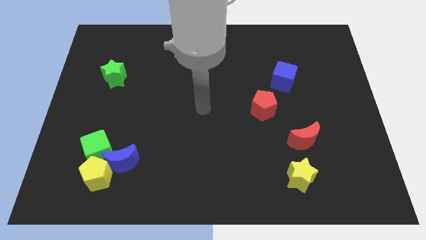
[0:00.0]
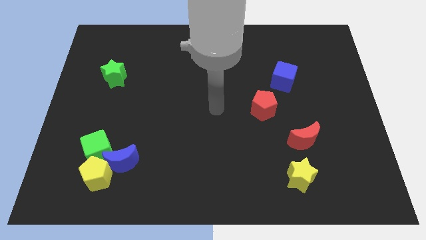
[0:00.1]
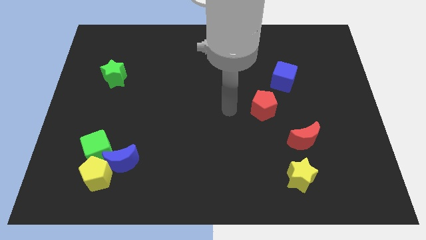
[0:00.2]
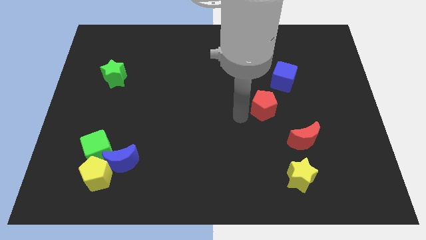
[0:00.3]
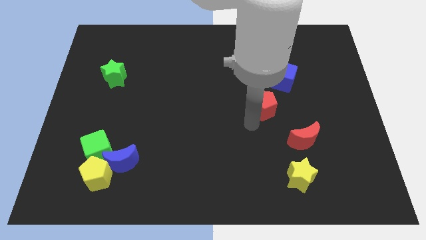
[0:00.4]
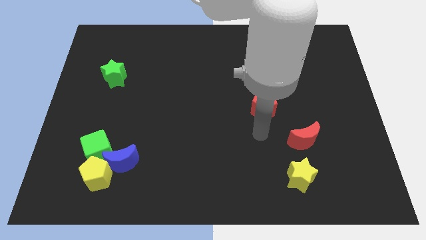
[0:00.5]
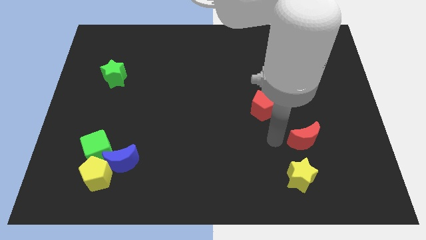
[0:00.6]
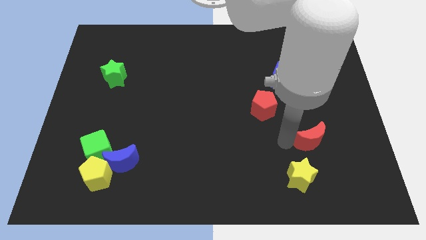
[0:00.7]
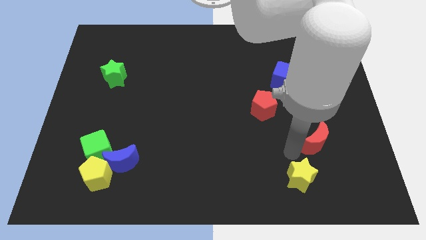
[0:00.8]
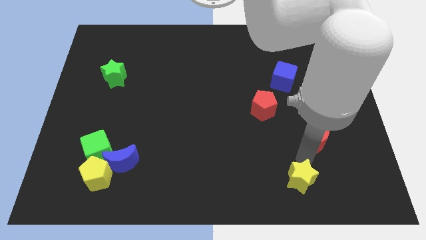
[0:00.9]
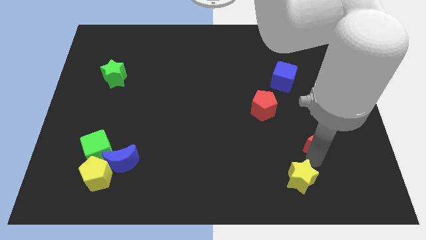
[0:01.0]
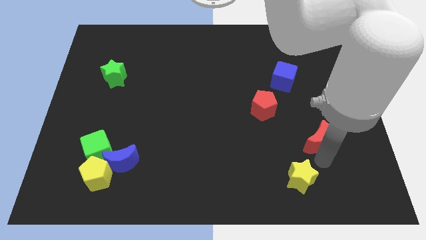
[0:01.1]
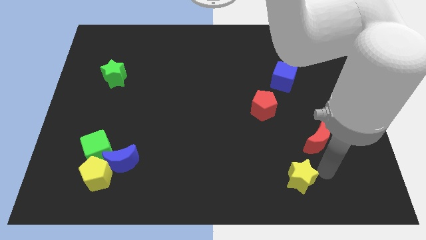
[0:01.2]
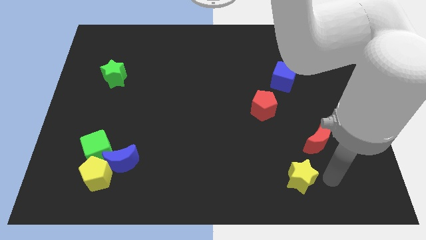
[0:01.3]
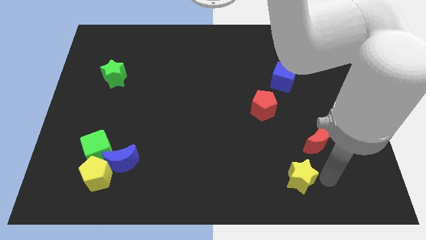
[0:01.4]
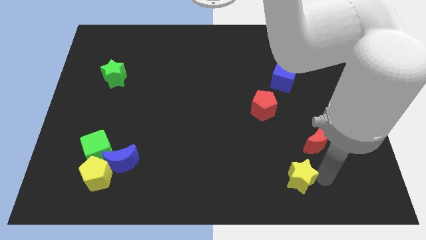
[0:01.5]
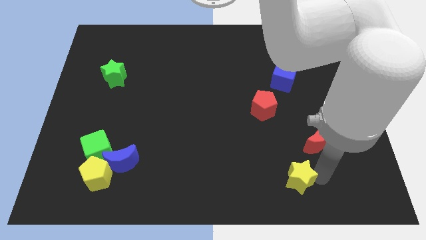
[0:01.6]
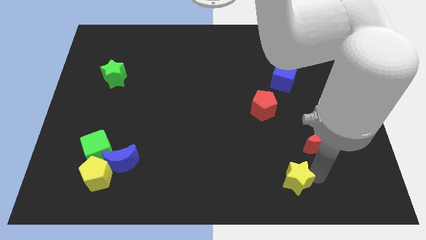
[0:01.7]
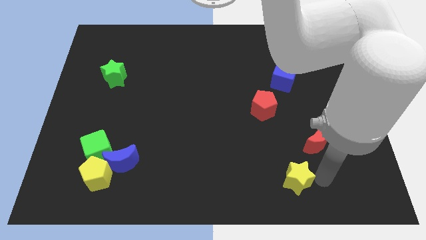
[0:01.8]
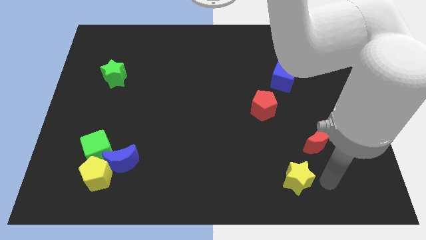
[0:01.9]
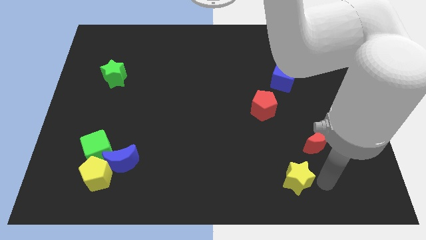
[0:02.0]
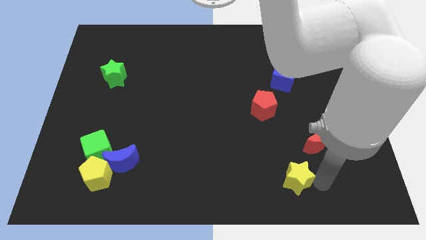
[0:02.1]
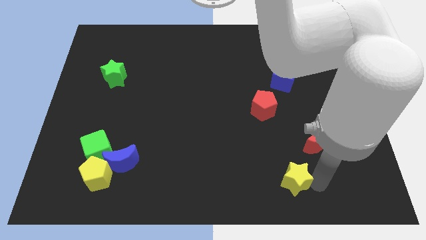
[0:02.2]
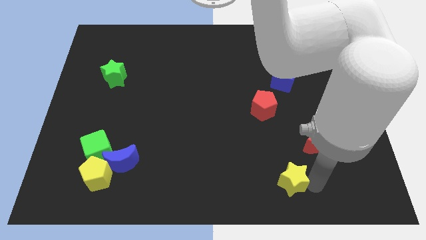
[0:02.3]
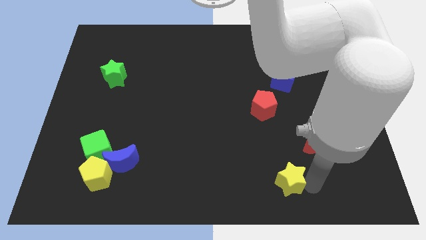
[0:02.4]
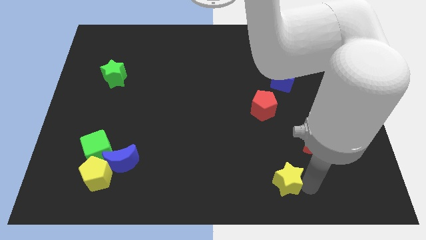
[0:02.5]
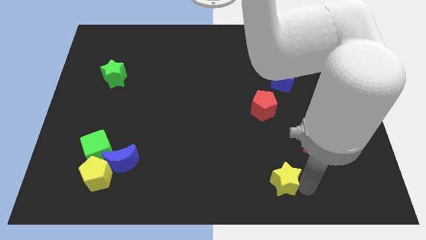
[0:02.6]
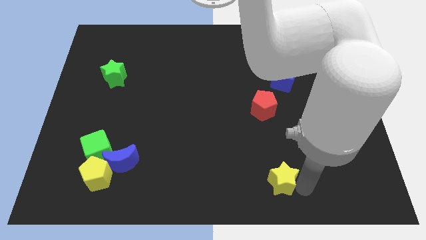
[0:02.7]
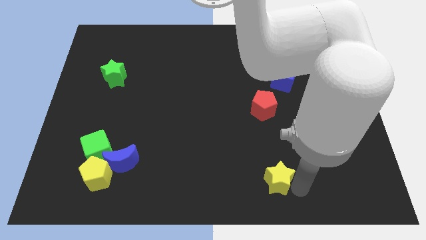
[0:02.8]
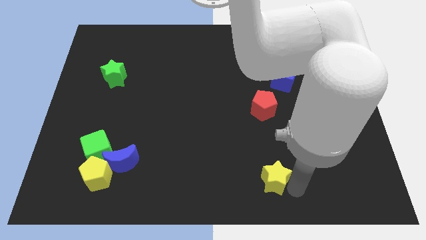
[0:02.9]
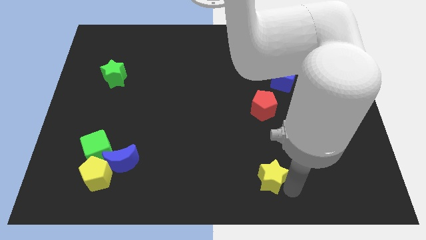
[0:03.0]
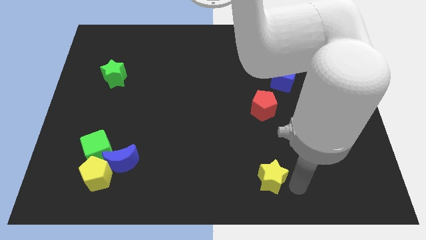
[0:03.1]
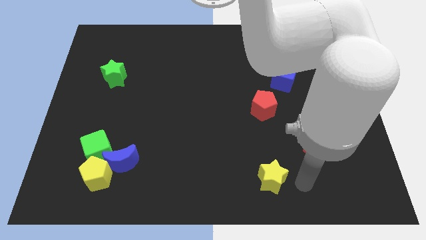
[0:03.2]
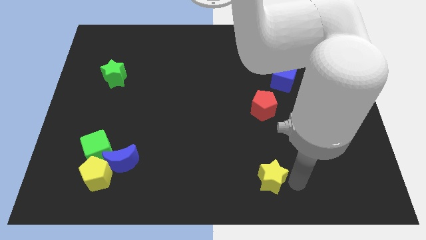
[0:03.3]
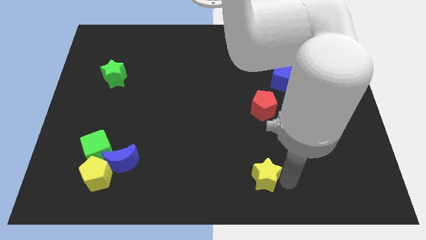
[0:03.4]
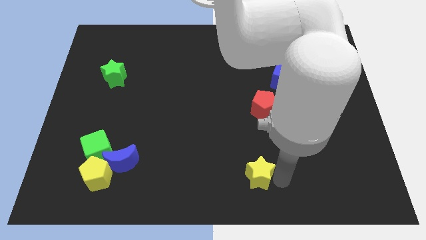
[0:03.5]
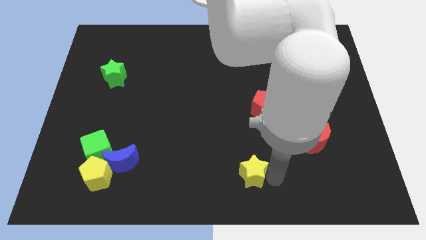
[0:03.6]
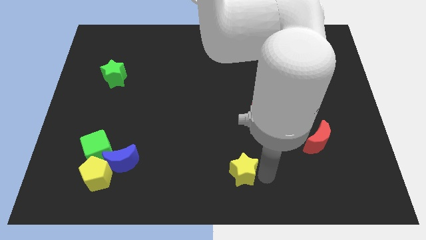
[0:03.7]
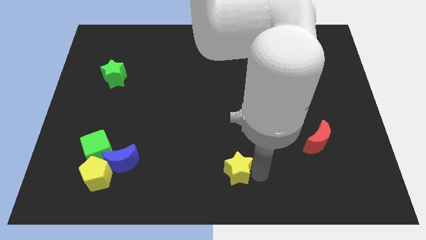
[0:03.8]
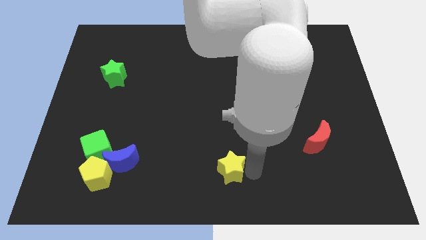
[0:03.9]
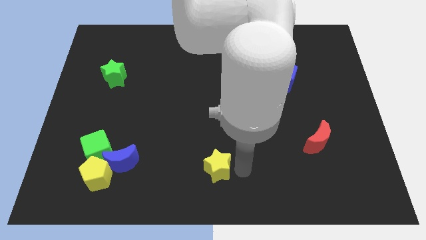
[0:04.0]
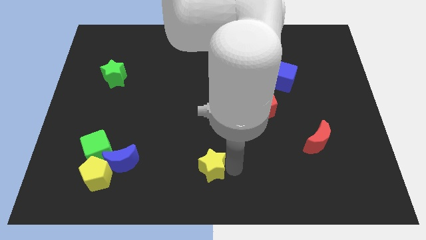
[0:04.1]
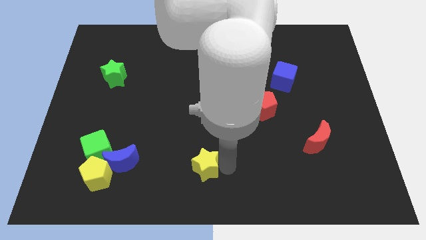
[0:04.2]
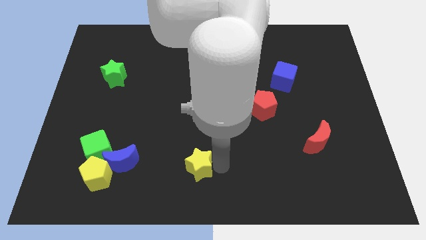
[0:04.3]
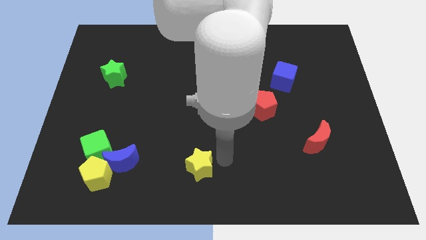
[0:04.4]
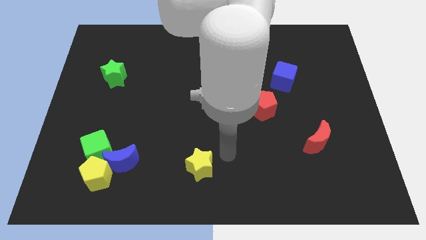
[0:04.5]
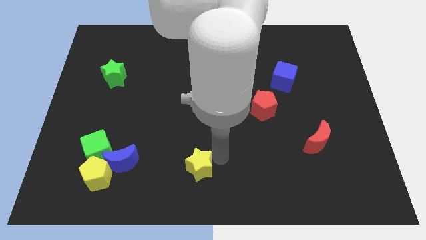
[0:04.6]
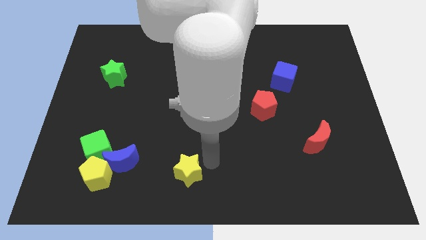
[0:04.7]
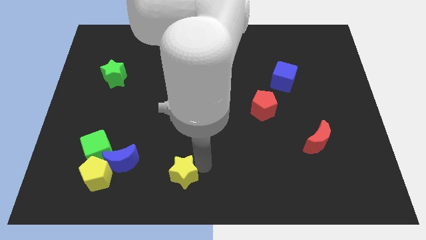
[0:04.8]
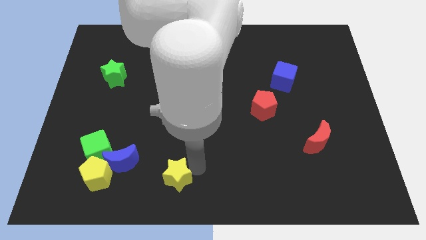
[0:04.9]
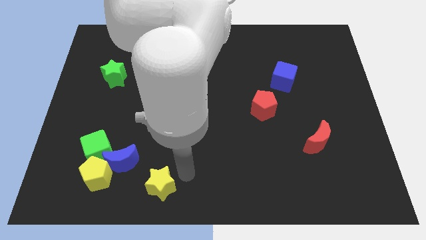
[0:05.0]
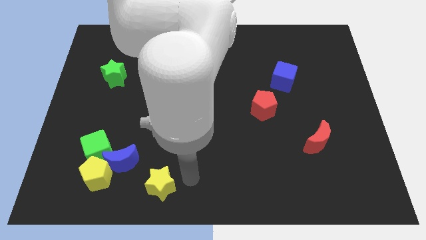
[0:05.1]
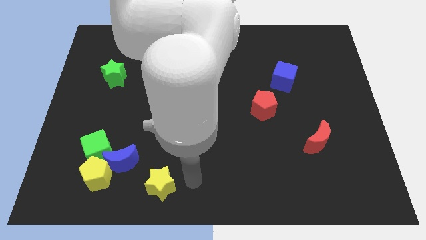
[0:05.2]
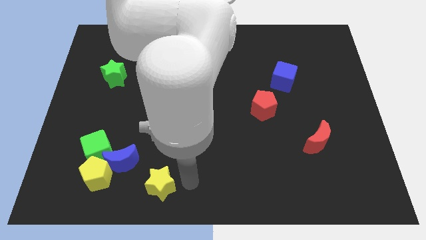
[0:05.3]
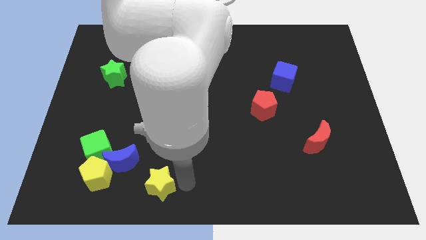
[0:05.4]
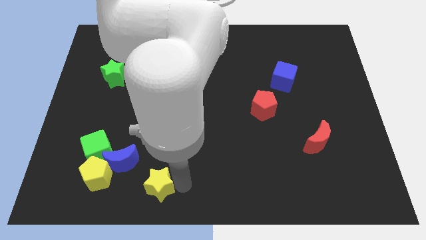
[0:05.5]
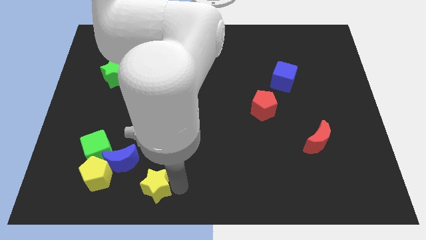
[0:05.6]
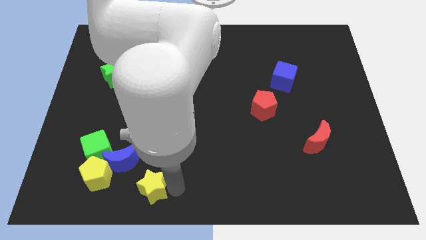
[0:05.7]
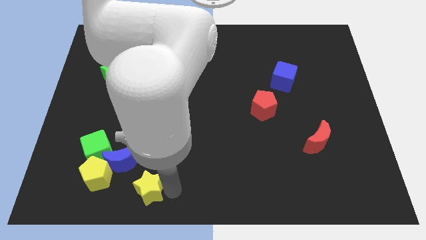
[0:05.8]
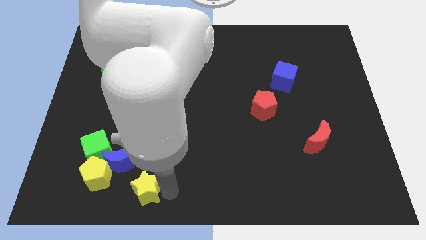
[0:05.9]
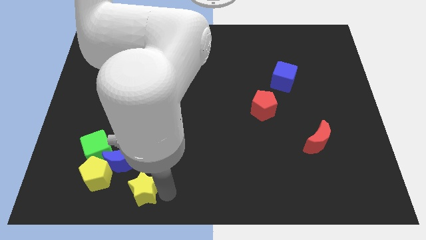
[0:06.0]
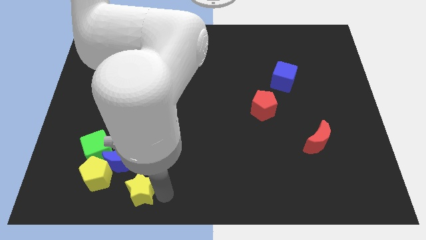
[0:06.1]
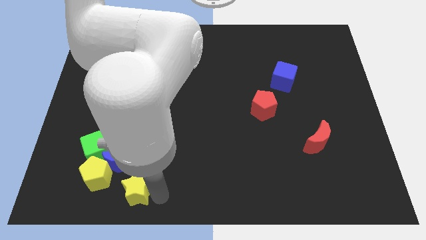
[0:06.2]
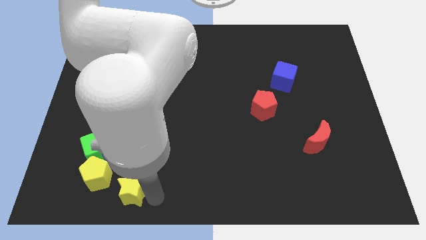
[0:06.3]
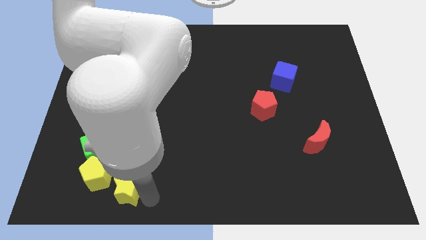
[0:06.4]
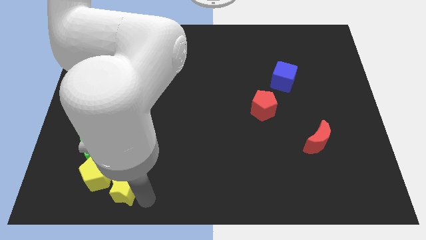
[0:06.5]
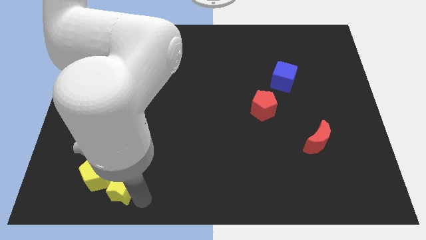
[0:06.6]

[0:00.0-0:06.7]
move the yellow star next to the yellow pentagon

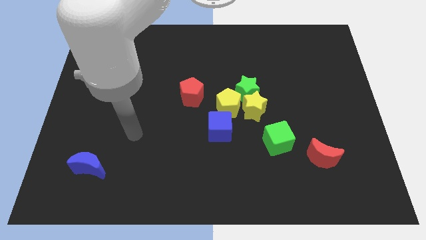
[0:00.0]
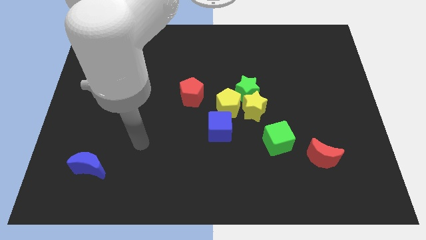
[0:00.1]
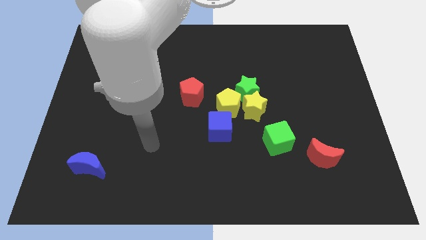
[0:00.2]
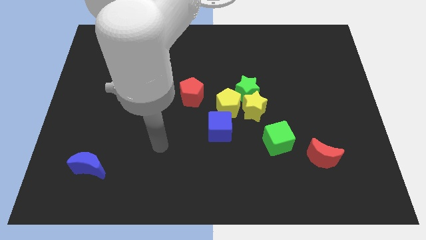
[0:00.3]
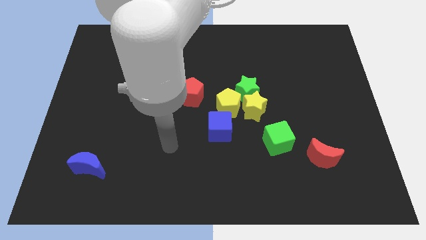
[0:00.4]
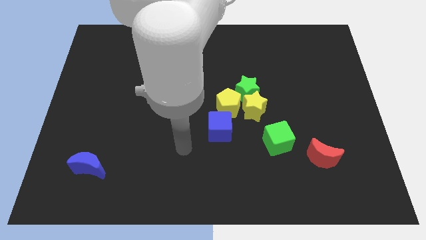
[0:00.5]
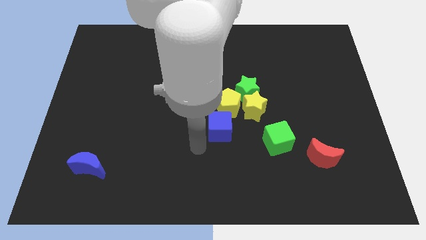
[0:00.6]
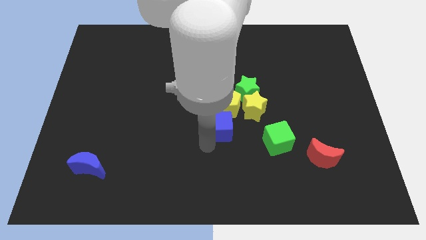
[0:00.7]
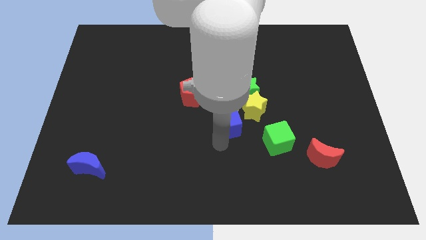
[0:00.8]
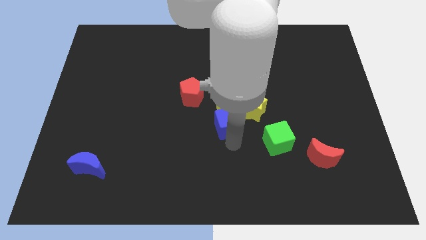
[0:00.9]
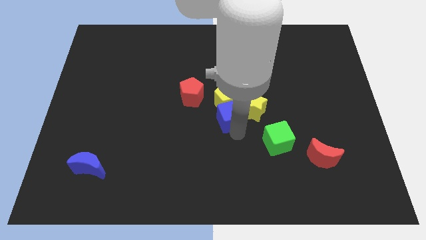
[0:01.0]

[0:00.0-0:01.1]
move the yellow star close to the blue cube

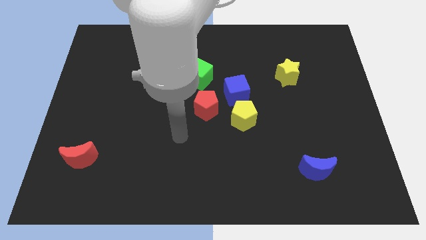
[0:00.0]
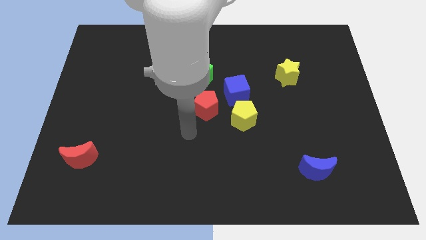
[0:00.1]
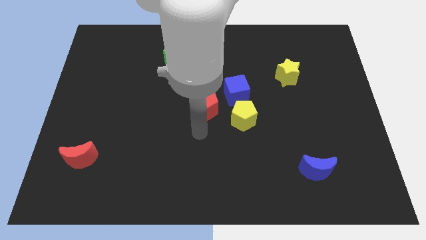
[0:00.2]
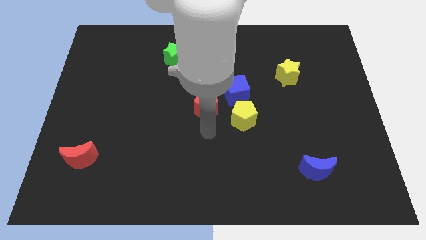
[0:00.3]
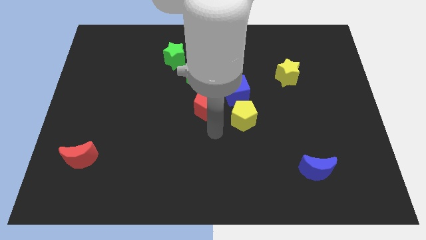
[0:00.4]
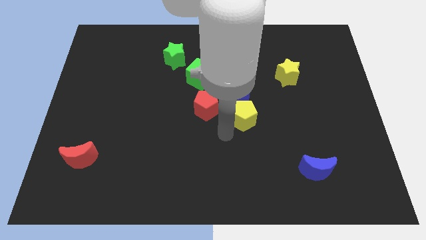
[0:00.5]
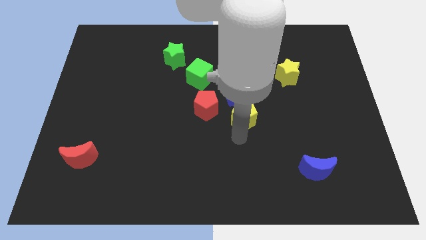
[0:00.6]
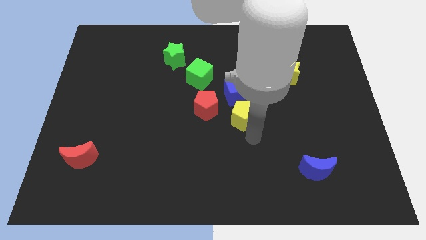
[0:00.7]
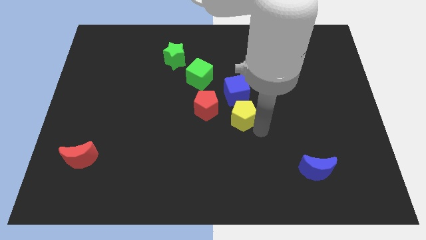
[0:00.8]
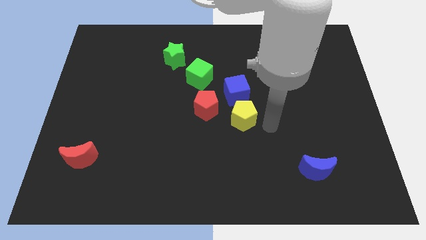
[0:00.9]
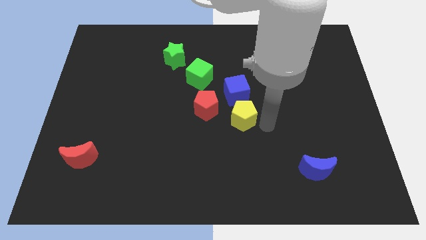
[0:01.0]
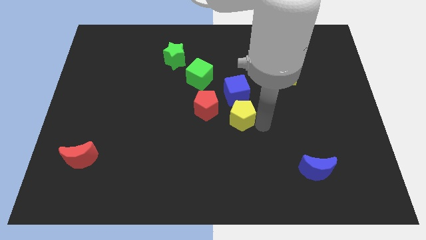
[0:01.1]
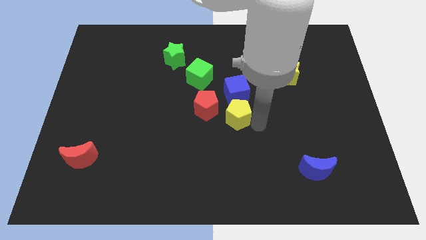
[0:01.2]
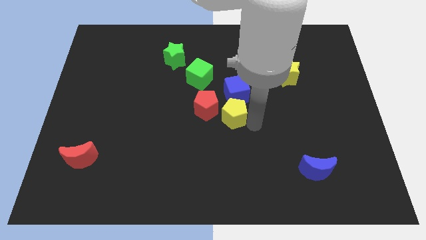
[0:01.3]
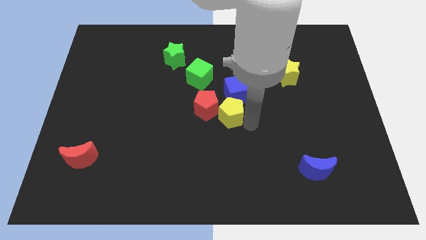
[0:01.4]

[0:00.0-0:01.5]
move the yellow pentagon towards the red pentagon
